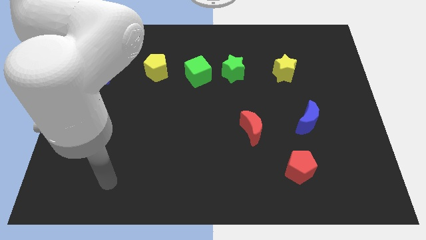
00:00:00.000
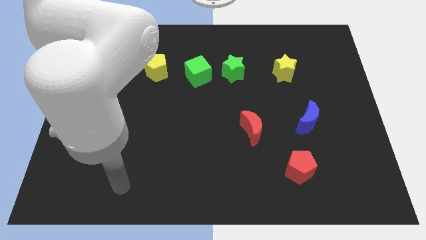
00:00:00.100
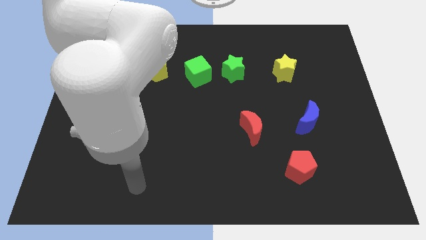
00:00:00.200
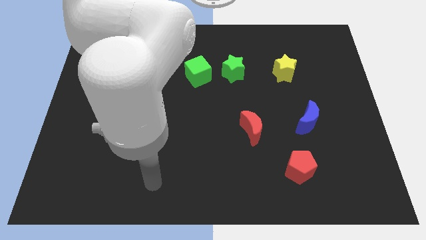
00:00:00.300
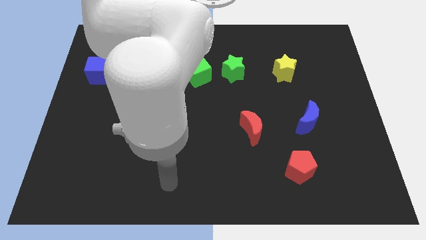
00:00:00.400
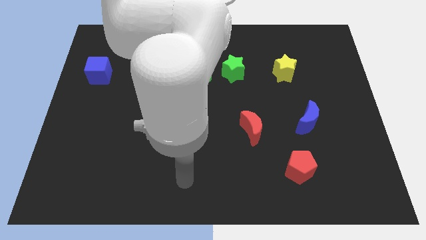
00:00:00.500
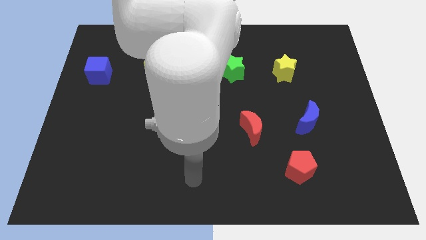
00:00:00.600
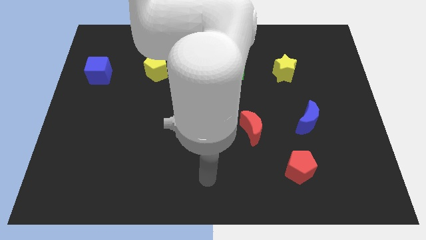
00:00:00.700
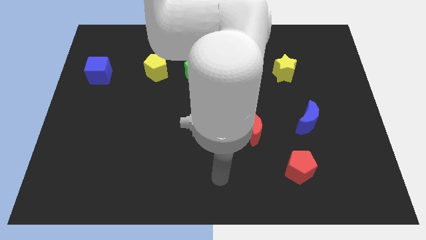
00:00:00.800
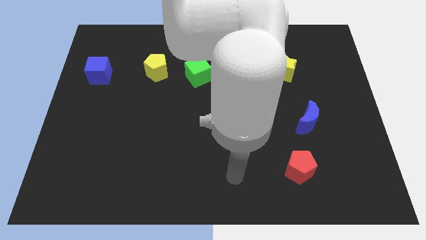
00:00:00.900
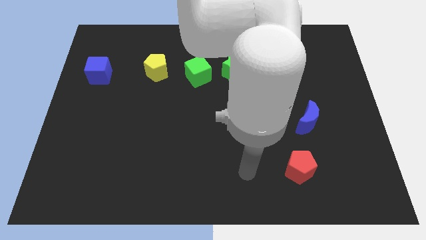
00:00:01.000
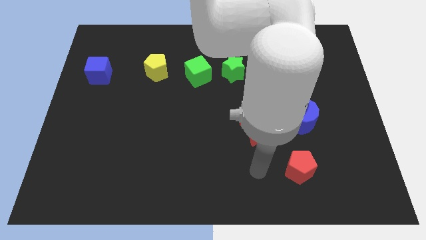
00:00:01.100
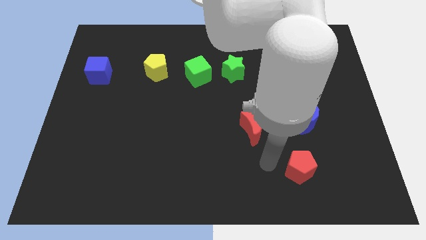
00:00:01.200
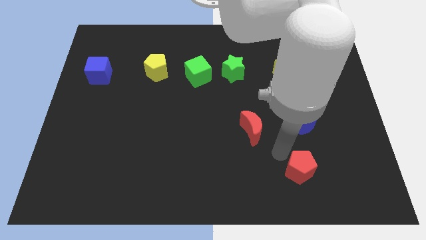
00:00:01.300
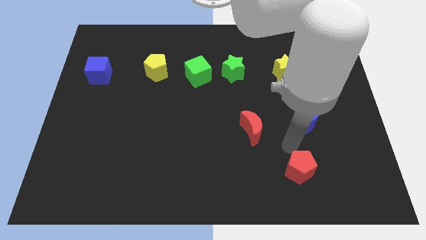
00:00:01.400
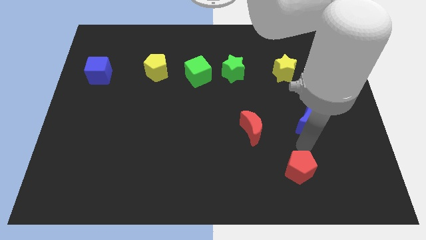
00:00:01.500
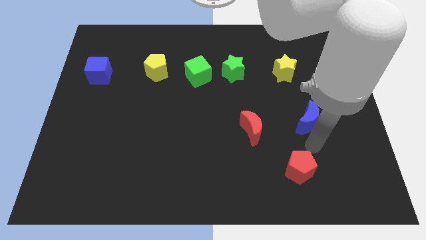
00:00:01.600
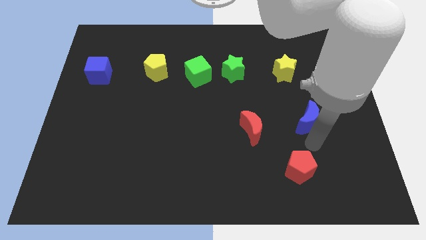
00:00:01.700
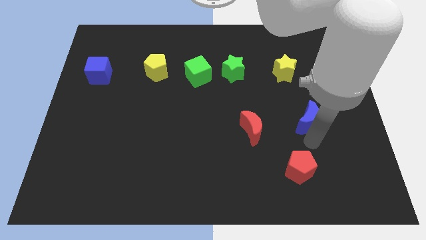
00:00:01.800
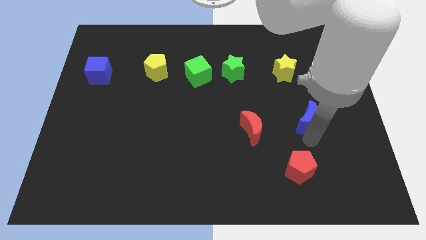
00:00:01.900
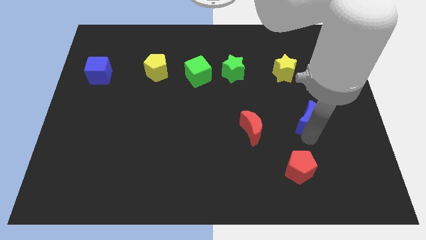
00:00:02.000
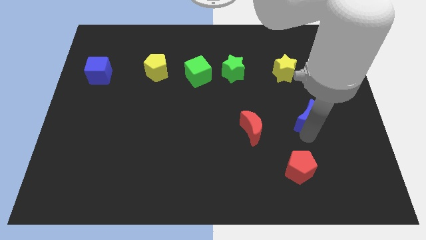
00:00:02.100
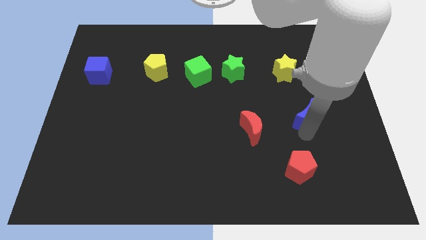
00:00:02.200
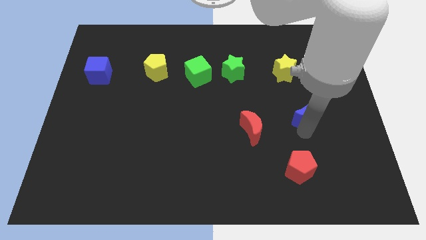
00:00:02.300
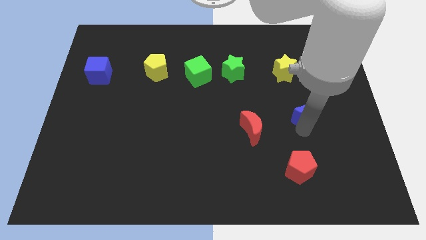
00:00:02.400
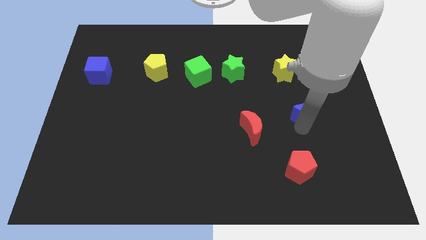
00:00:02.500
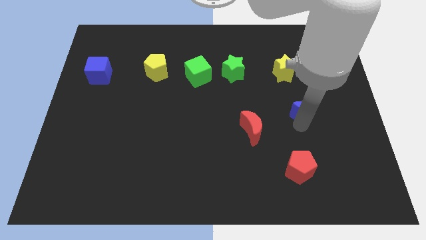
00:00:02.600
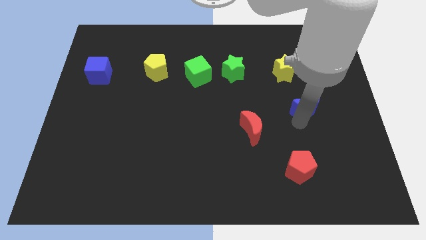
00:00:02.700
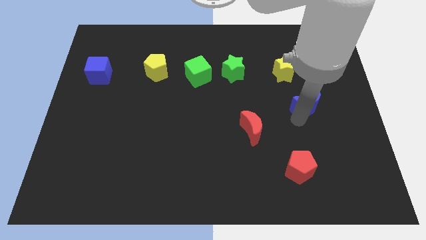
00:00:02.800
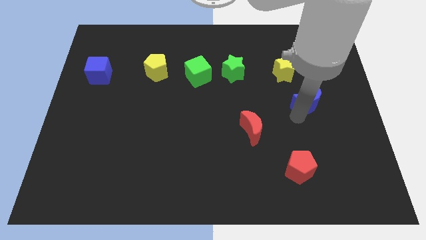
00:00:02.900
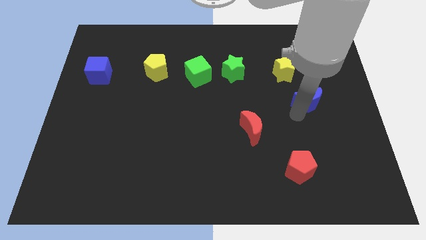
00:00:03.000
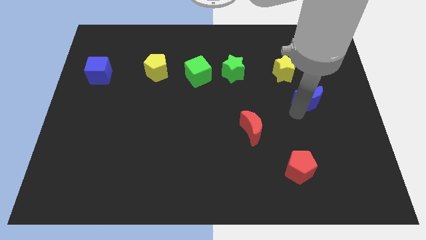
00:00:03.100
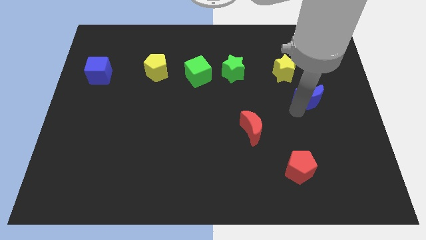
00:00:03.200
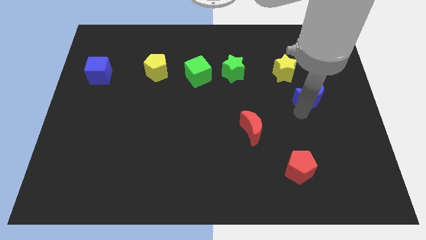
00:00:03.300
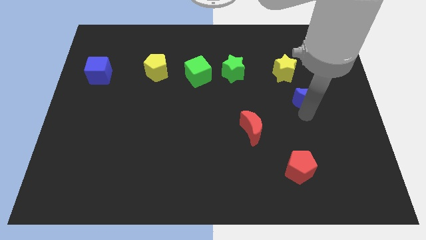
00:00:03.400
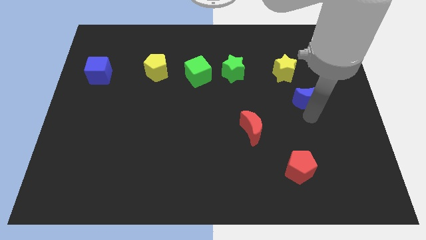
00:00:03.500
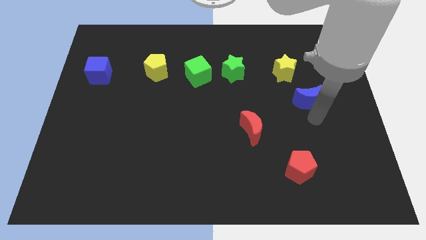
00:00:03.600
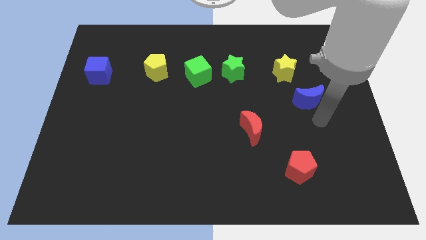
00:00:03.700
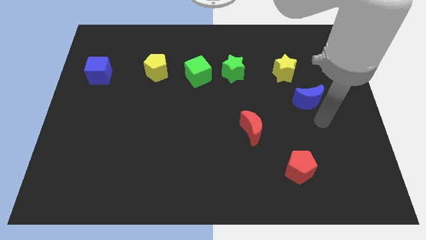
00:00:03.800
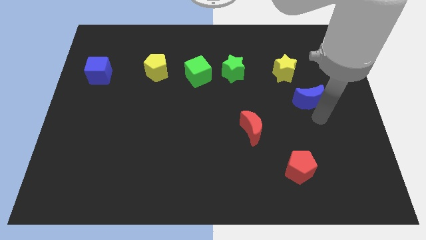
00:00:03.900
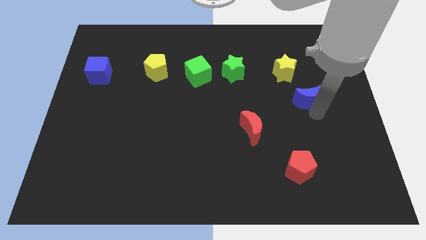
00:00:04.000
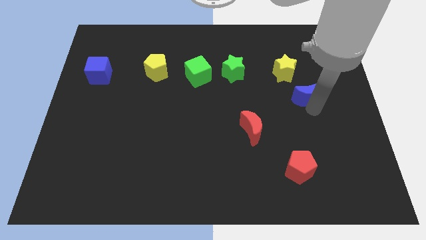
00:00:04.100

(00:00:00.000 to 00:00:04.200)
slide the blue moon up a little bit

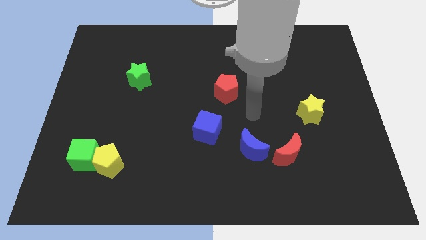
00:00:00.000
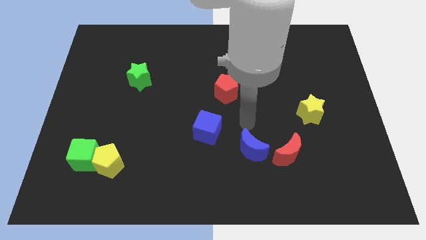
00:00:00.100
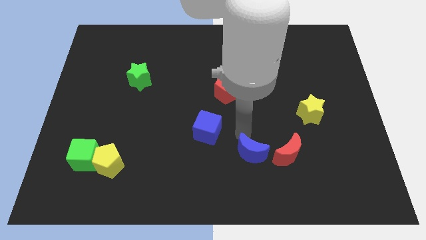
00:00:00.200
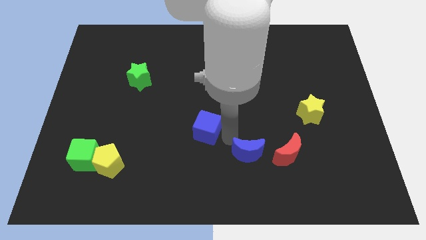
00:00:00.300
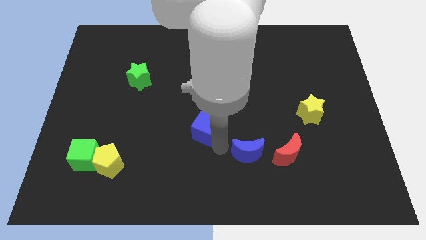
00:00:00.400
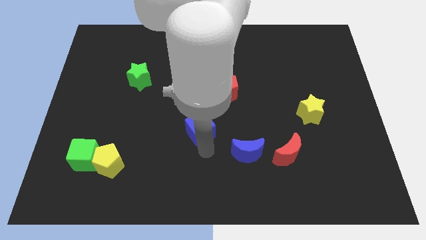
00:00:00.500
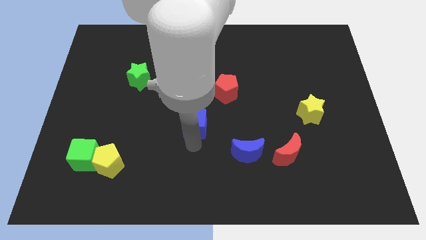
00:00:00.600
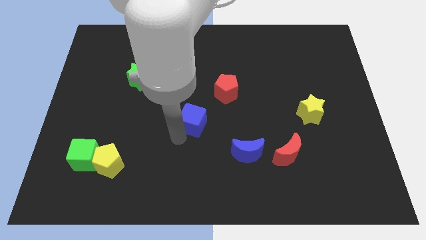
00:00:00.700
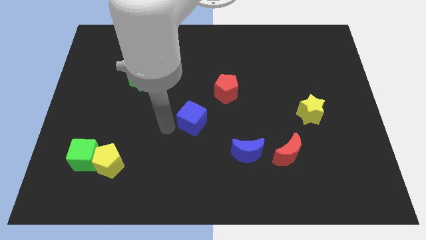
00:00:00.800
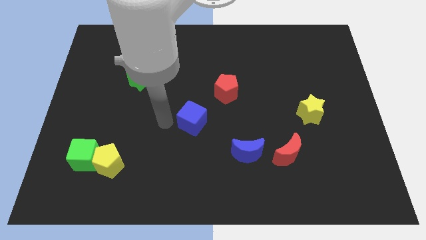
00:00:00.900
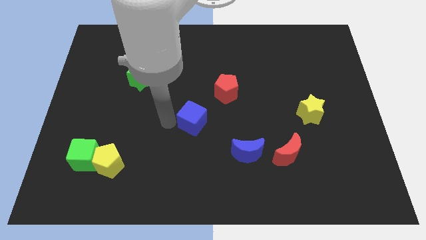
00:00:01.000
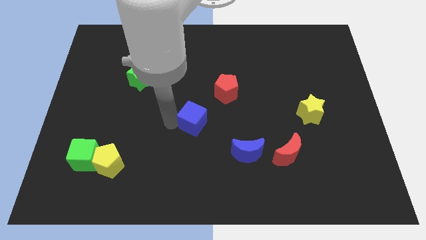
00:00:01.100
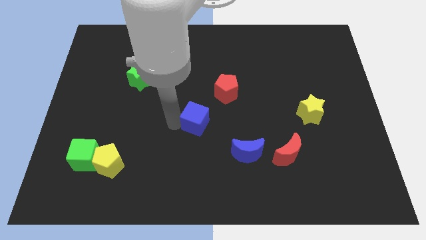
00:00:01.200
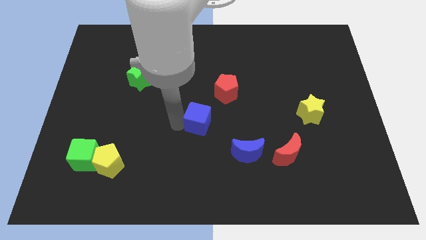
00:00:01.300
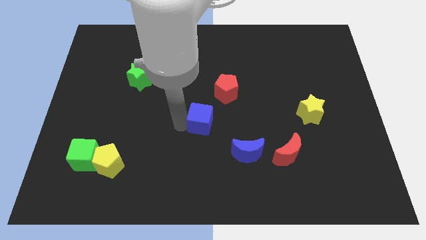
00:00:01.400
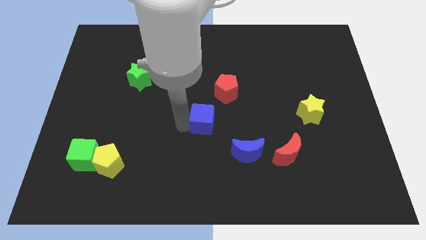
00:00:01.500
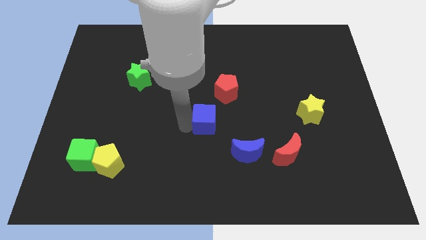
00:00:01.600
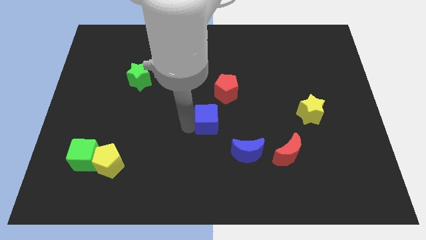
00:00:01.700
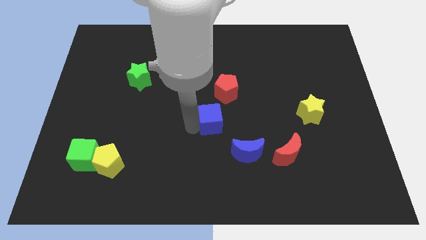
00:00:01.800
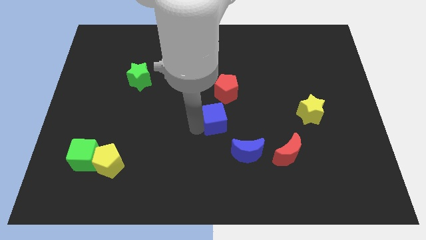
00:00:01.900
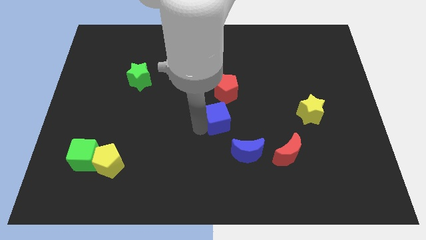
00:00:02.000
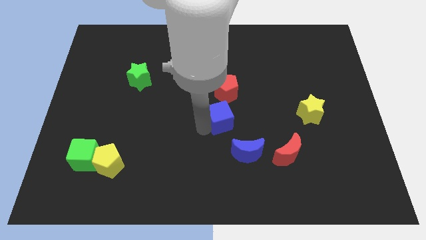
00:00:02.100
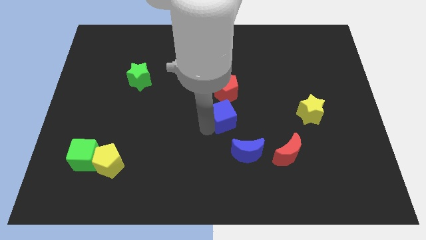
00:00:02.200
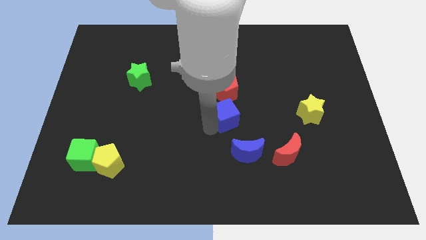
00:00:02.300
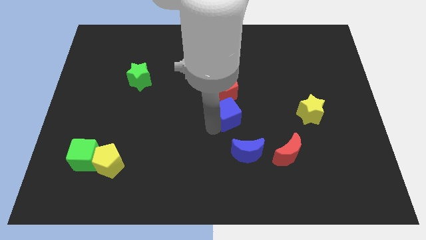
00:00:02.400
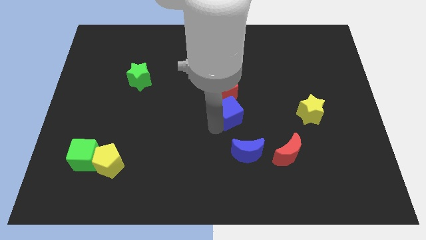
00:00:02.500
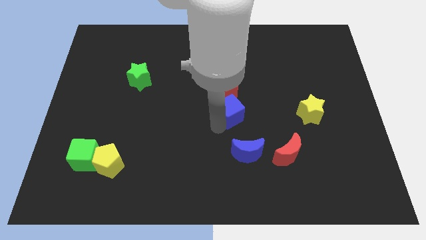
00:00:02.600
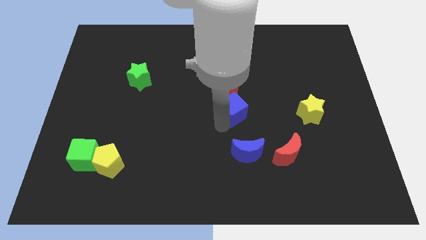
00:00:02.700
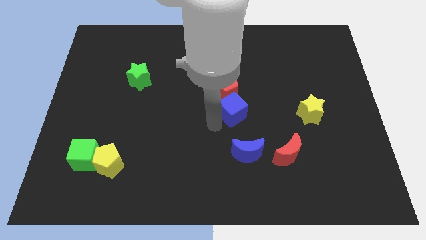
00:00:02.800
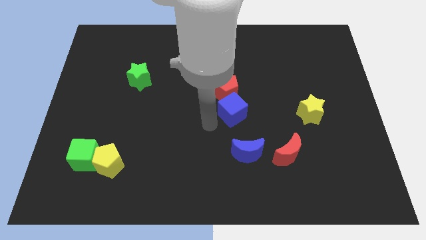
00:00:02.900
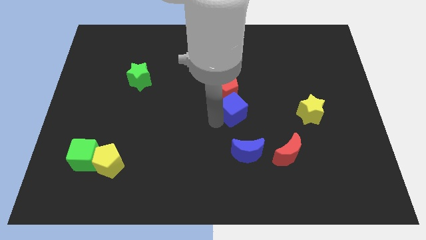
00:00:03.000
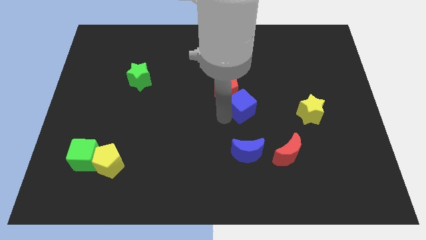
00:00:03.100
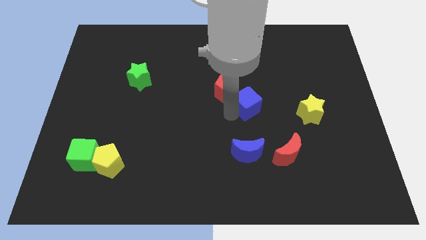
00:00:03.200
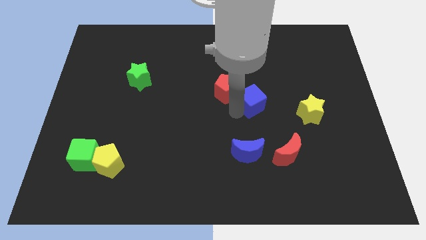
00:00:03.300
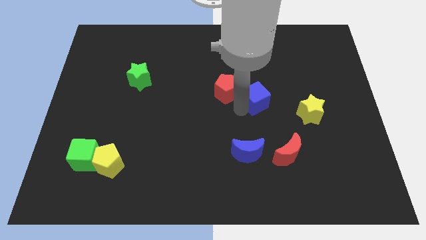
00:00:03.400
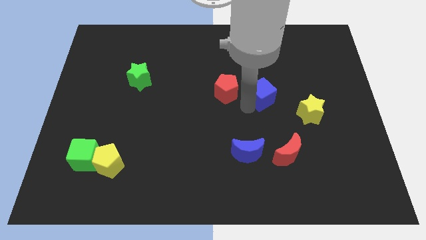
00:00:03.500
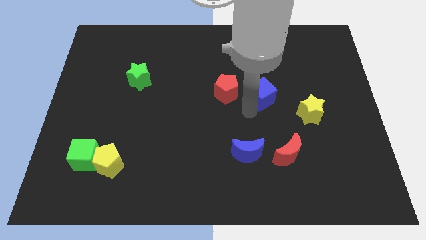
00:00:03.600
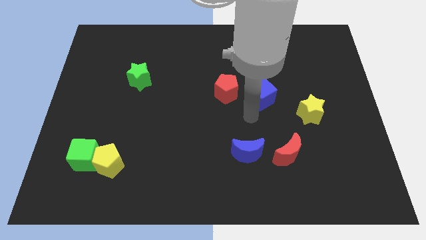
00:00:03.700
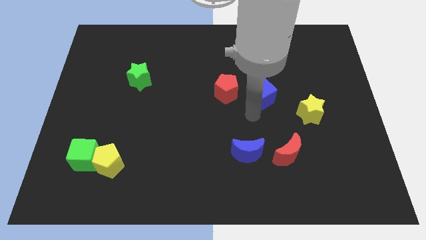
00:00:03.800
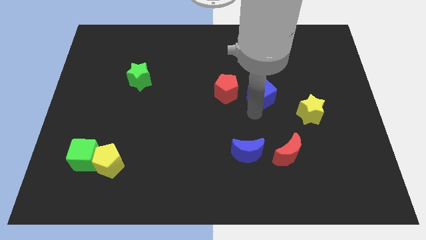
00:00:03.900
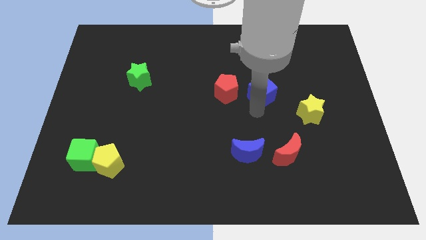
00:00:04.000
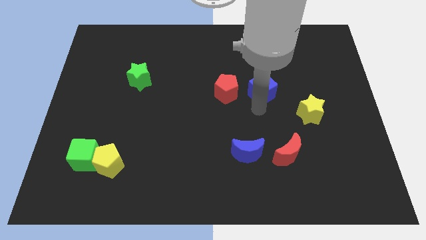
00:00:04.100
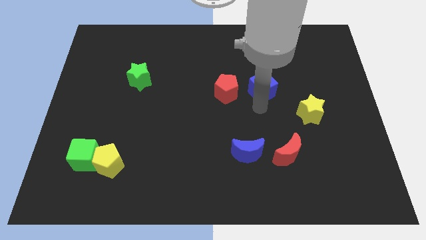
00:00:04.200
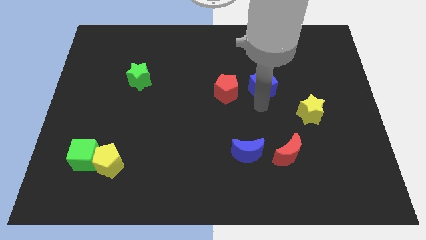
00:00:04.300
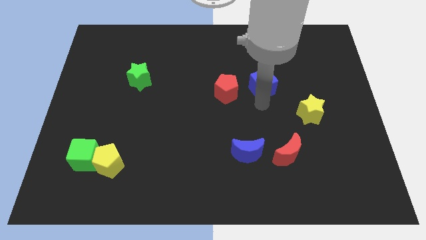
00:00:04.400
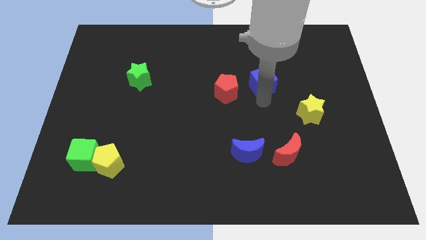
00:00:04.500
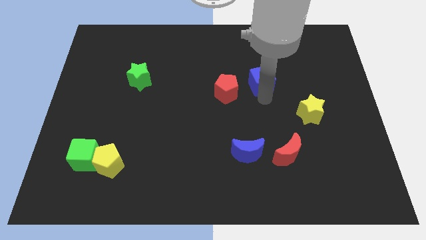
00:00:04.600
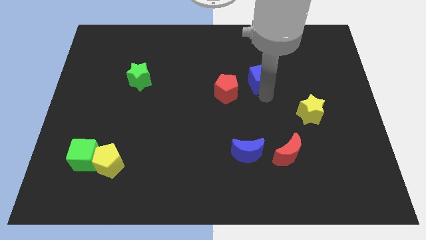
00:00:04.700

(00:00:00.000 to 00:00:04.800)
slide the blue cube upwards and right diagonally
